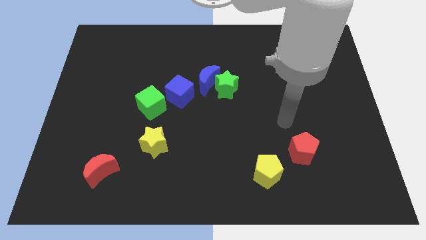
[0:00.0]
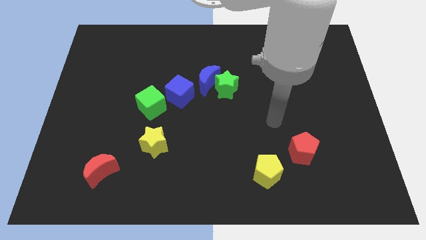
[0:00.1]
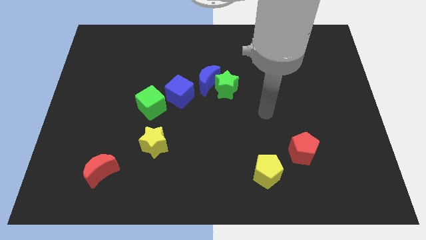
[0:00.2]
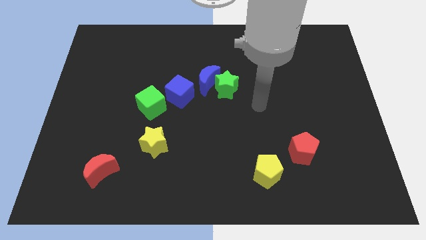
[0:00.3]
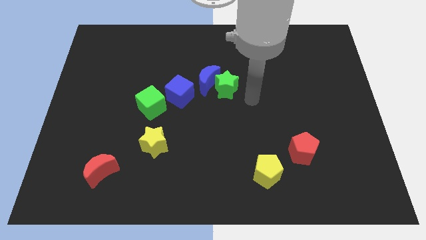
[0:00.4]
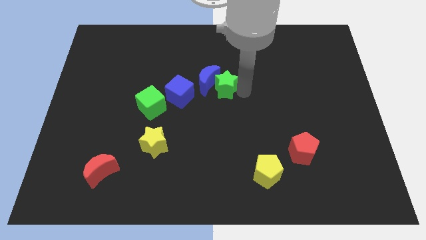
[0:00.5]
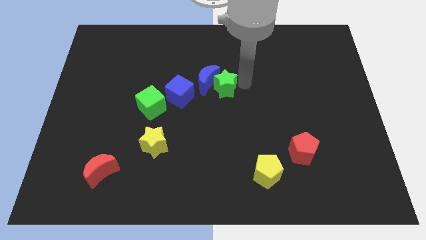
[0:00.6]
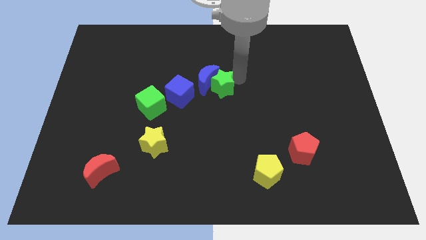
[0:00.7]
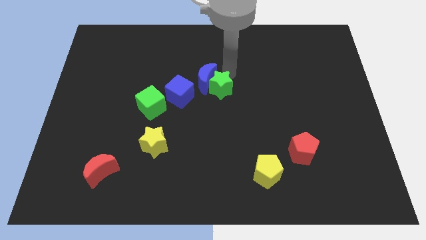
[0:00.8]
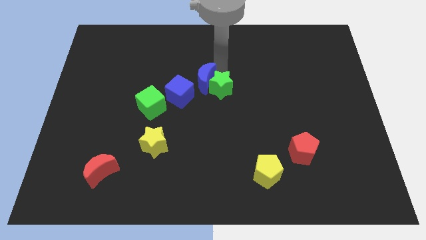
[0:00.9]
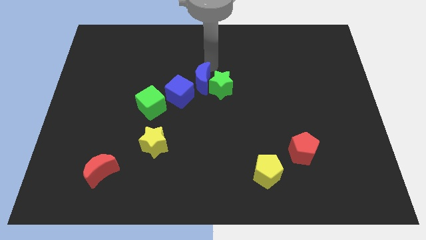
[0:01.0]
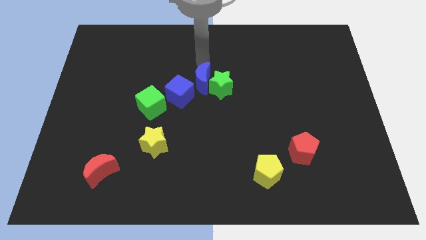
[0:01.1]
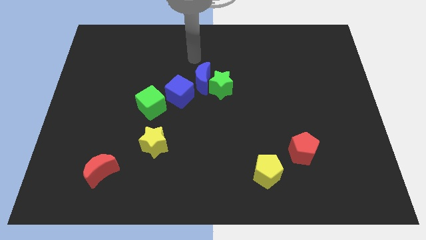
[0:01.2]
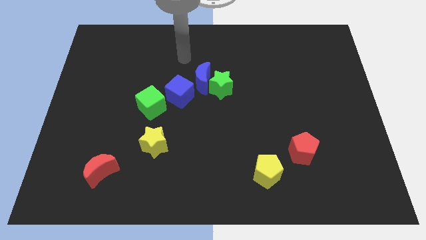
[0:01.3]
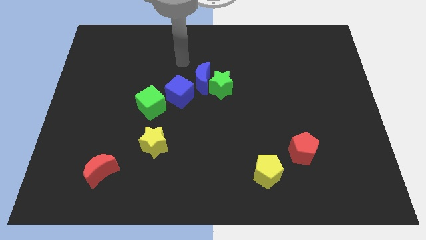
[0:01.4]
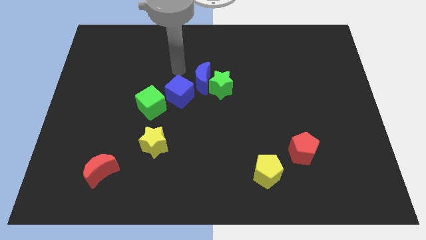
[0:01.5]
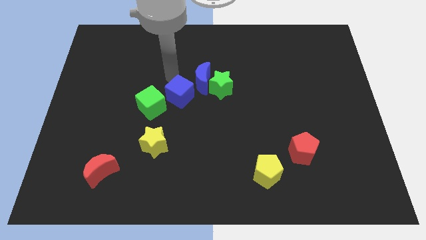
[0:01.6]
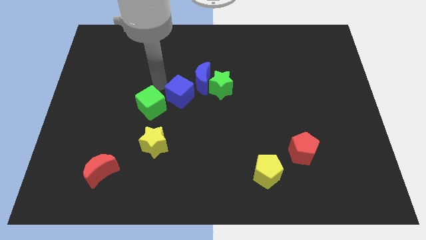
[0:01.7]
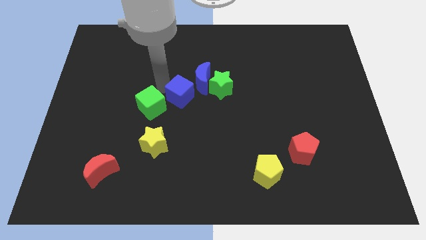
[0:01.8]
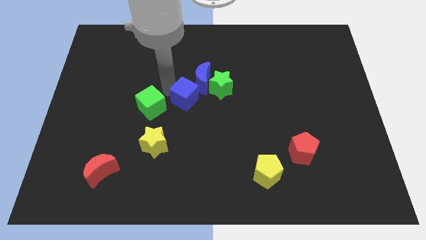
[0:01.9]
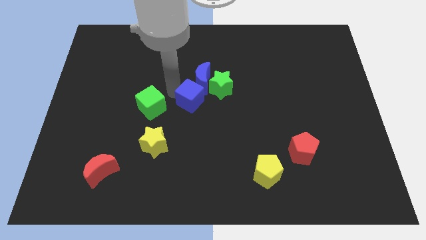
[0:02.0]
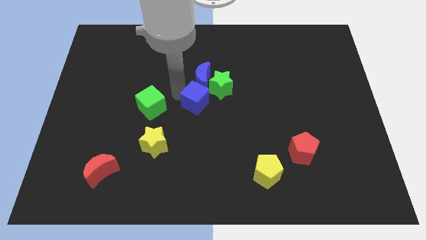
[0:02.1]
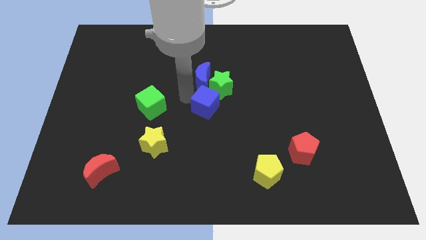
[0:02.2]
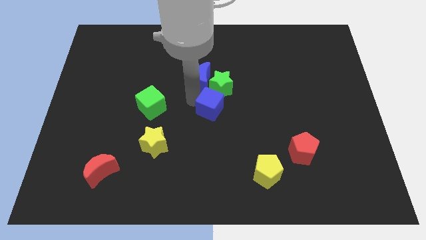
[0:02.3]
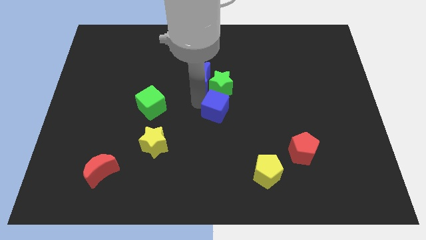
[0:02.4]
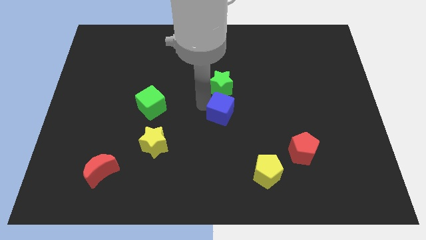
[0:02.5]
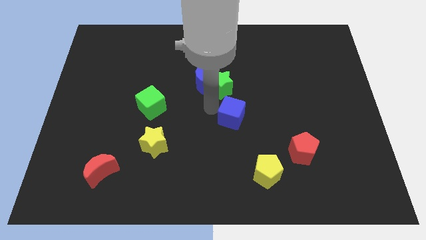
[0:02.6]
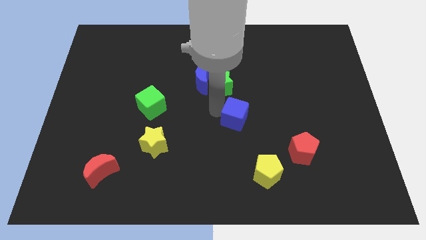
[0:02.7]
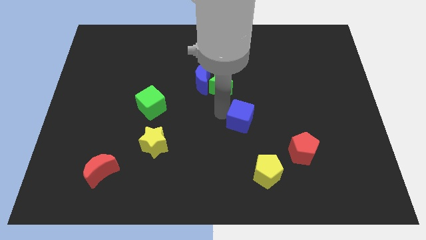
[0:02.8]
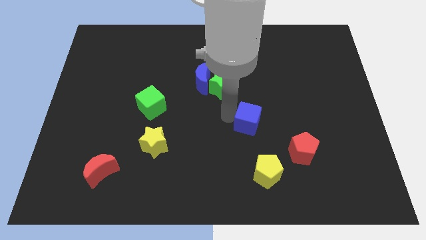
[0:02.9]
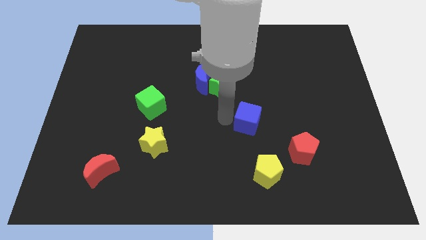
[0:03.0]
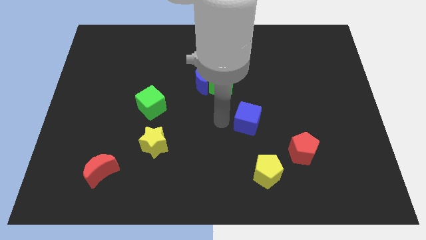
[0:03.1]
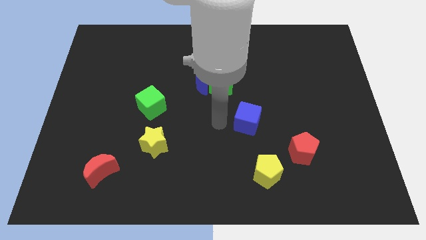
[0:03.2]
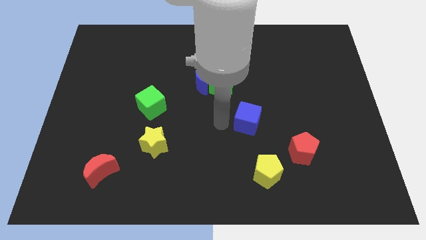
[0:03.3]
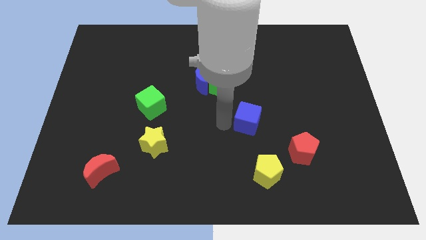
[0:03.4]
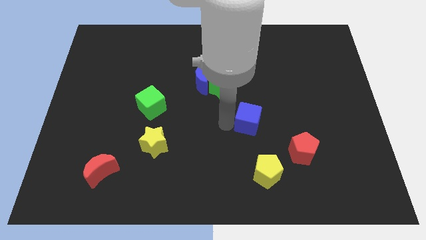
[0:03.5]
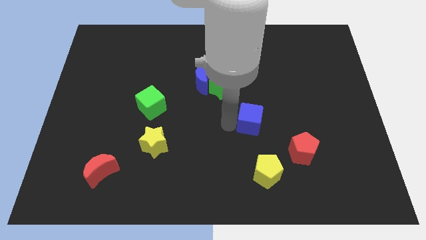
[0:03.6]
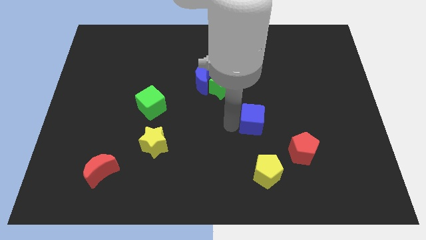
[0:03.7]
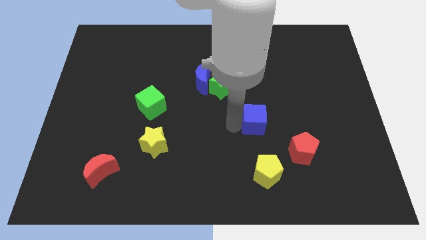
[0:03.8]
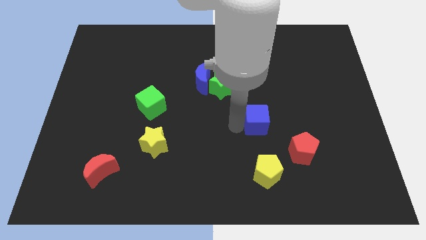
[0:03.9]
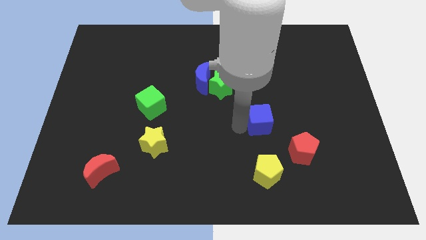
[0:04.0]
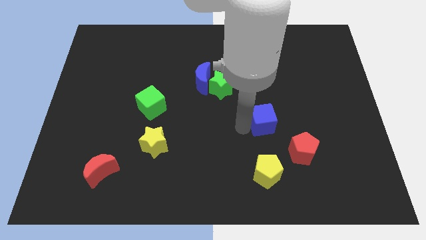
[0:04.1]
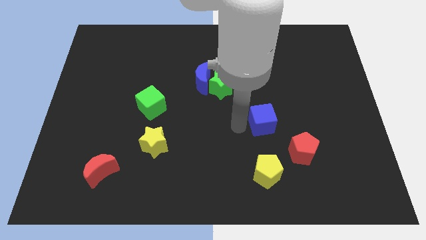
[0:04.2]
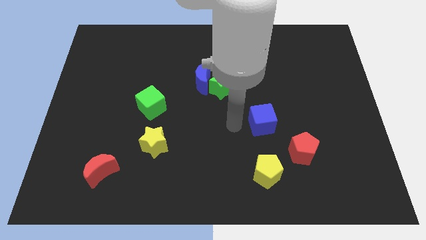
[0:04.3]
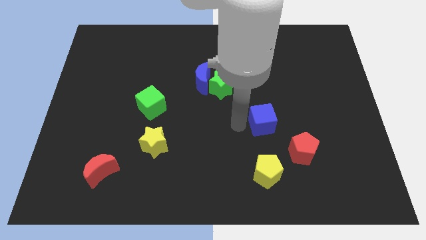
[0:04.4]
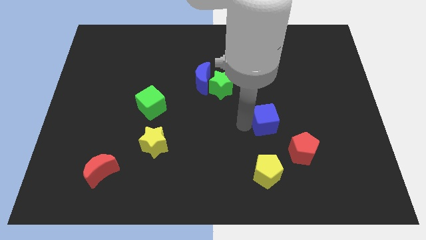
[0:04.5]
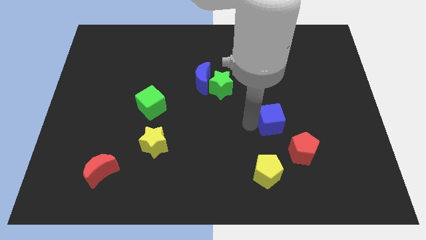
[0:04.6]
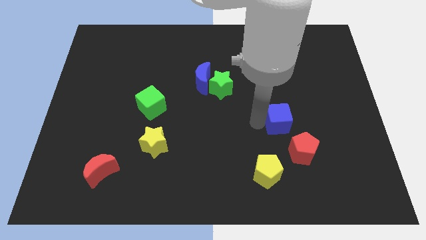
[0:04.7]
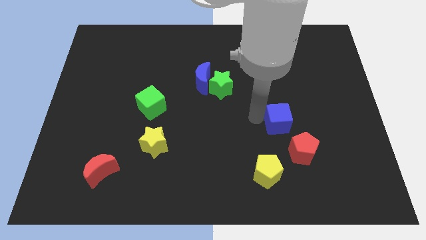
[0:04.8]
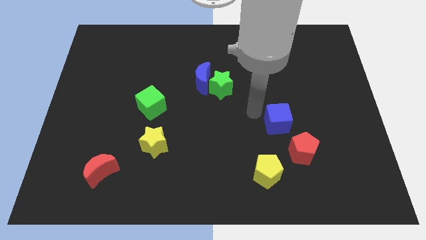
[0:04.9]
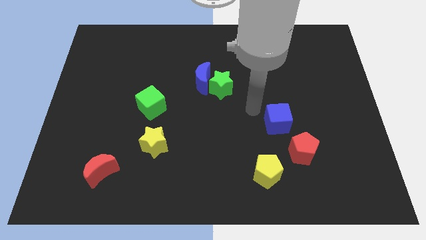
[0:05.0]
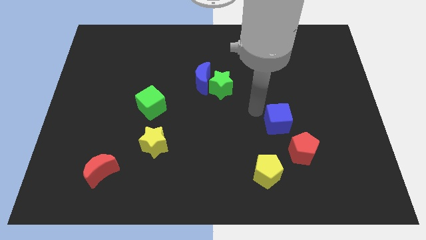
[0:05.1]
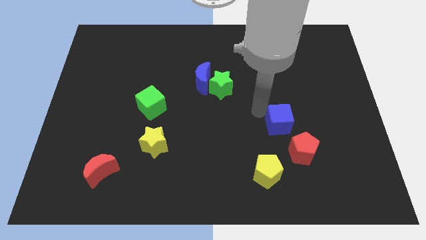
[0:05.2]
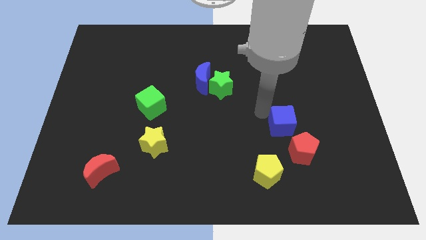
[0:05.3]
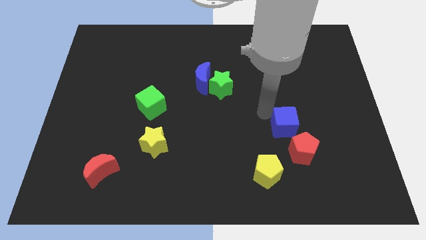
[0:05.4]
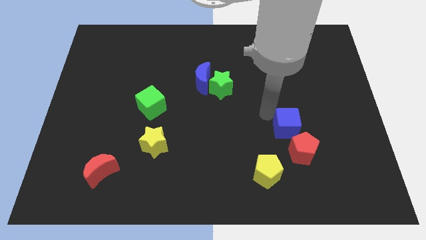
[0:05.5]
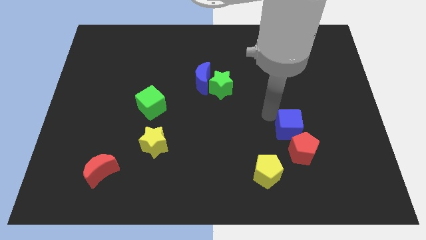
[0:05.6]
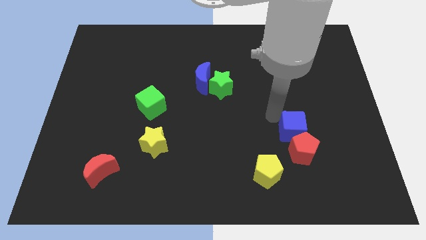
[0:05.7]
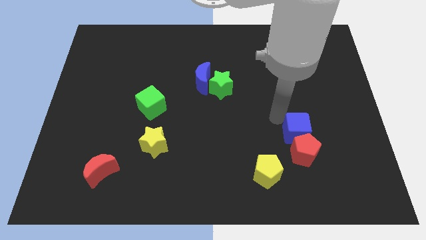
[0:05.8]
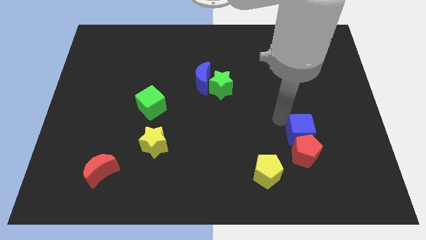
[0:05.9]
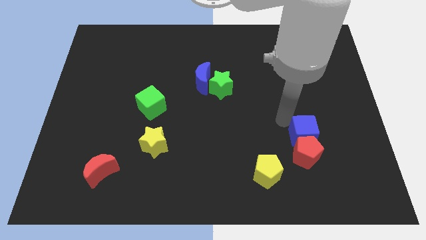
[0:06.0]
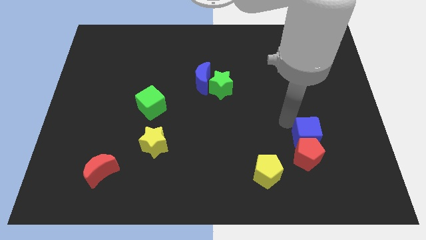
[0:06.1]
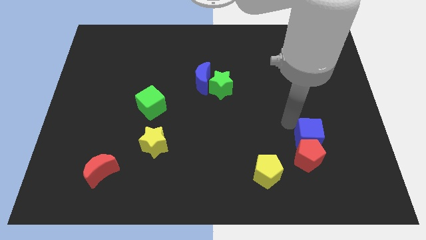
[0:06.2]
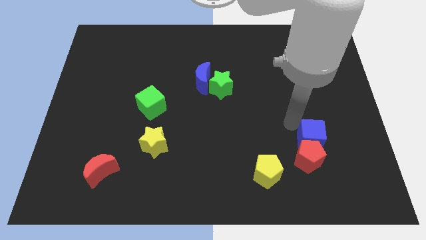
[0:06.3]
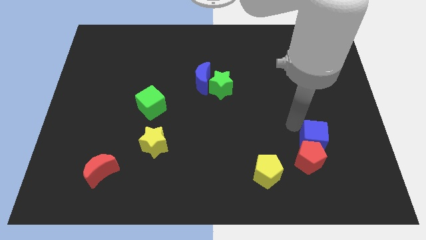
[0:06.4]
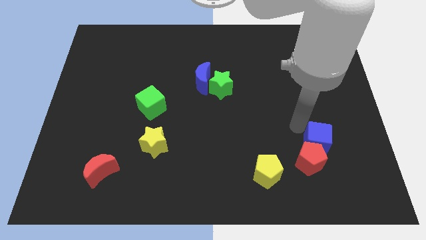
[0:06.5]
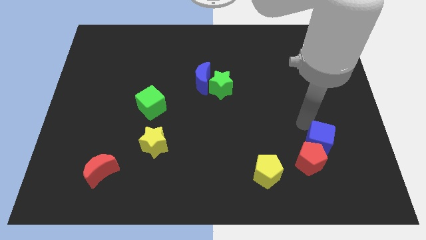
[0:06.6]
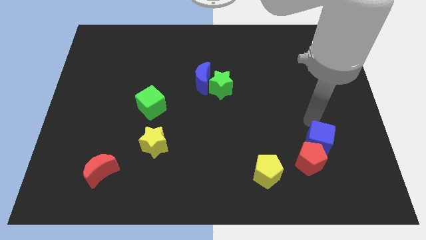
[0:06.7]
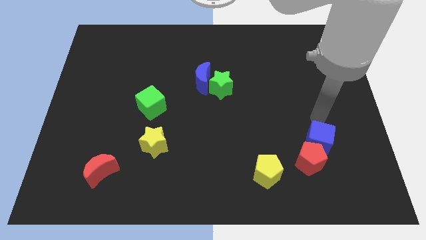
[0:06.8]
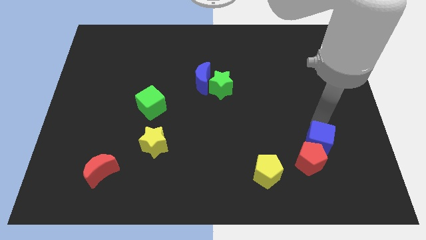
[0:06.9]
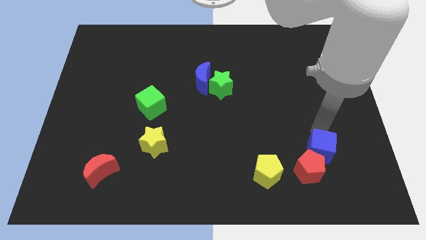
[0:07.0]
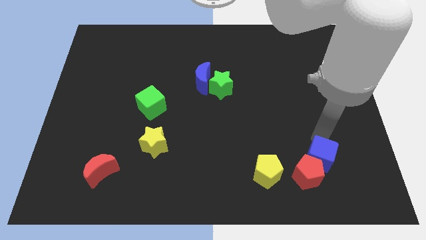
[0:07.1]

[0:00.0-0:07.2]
move the blue cube to the right side of the yellow pentagon

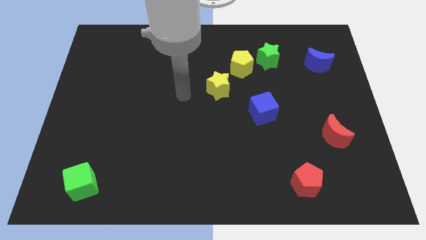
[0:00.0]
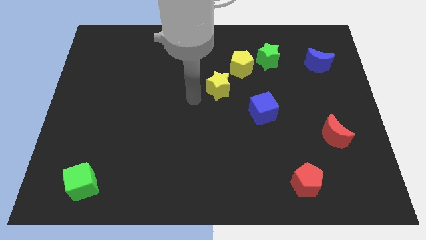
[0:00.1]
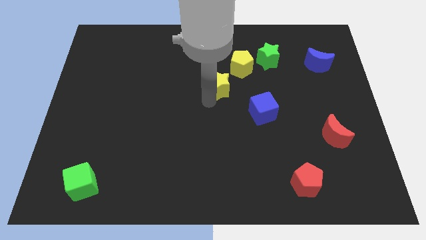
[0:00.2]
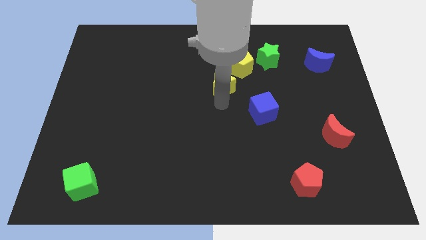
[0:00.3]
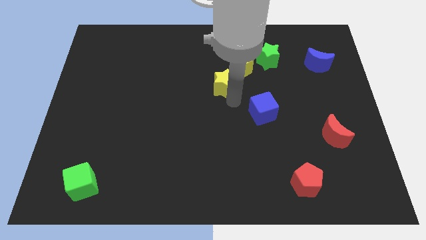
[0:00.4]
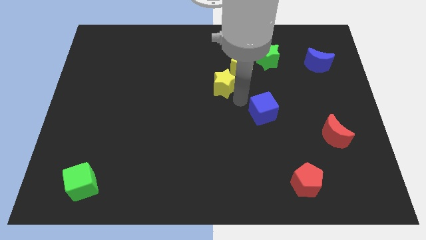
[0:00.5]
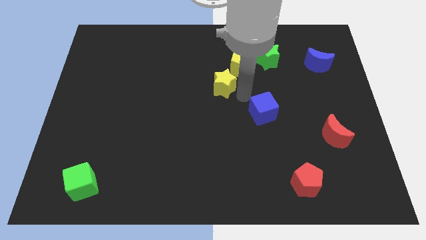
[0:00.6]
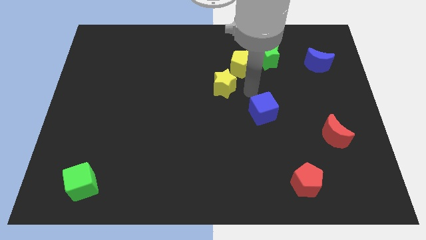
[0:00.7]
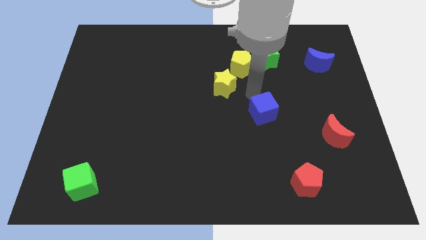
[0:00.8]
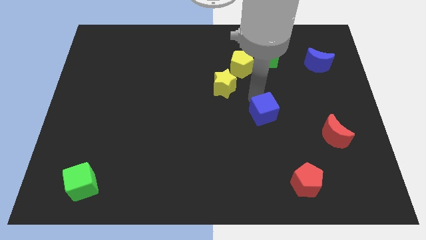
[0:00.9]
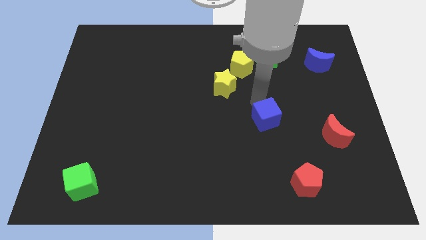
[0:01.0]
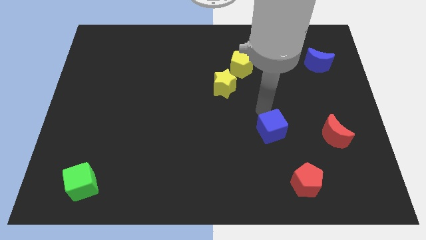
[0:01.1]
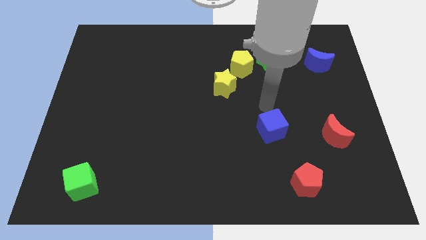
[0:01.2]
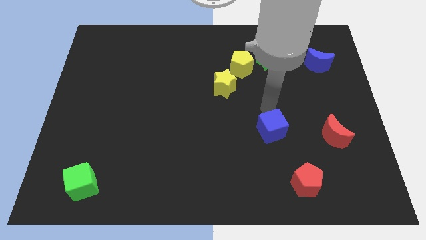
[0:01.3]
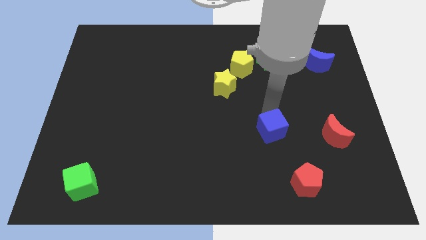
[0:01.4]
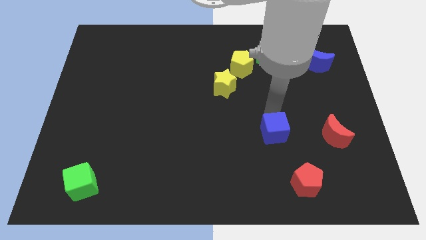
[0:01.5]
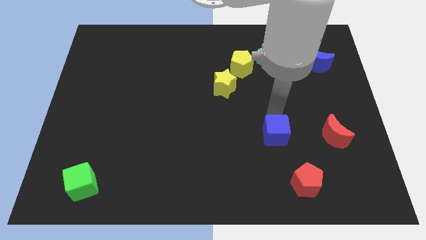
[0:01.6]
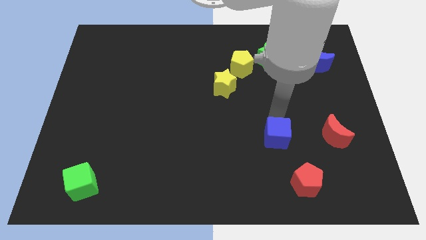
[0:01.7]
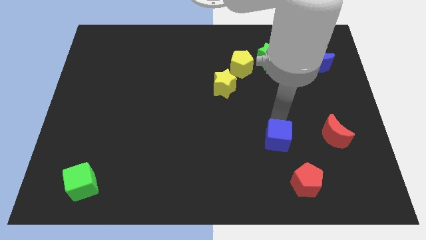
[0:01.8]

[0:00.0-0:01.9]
put the blue cube to the top left side of the red pentagon
